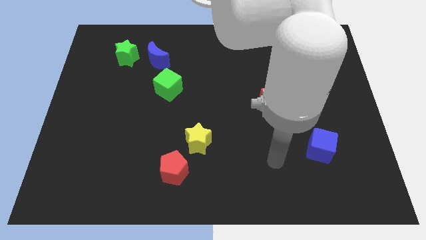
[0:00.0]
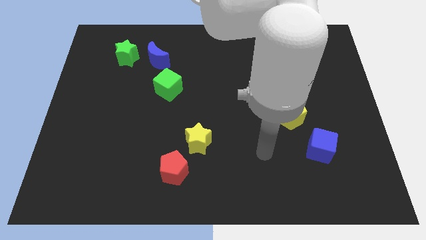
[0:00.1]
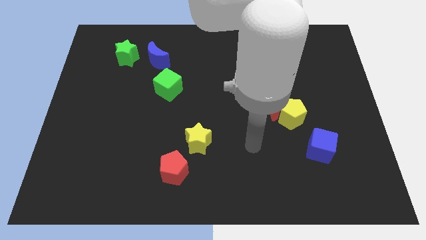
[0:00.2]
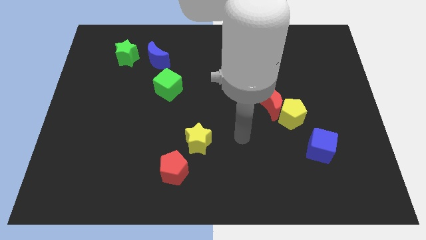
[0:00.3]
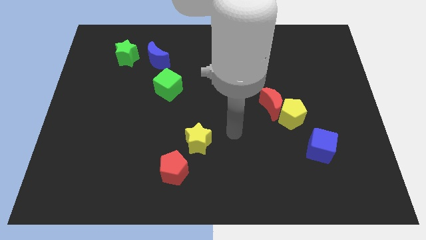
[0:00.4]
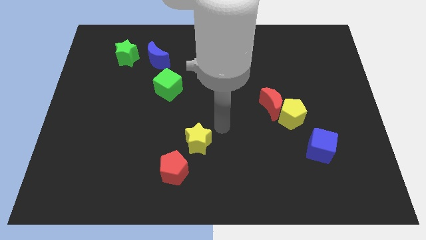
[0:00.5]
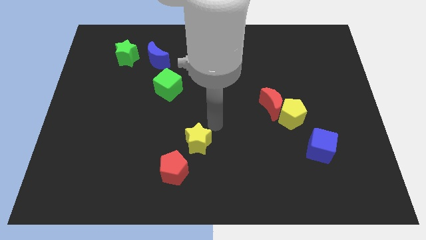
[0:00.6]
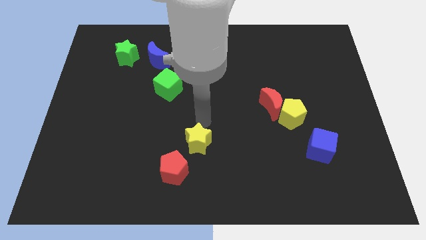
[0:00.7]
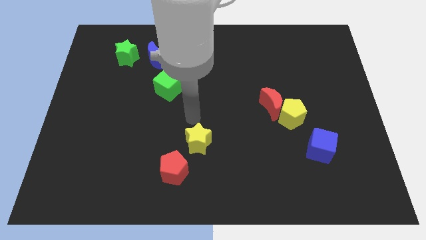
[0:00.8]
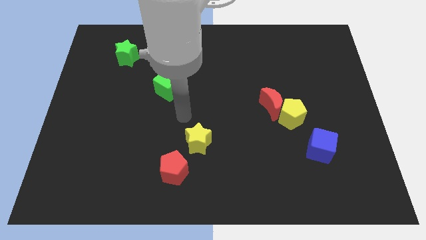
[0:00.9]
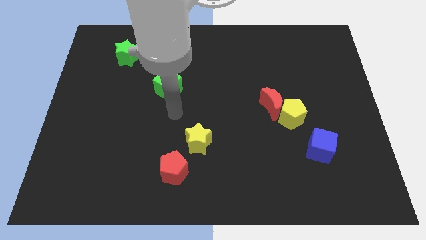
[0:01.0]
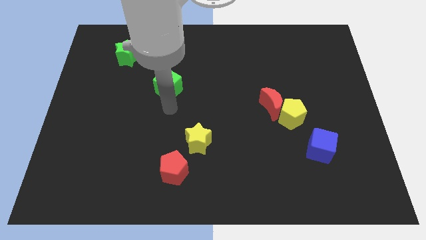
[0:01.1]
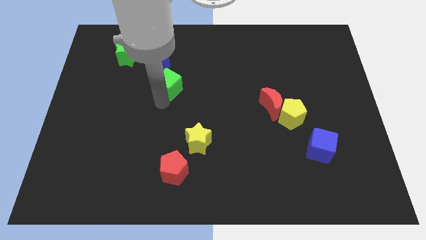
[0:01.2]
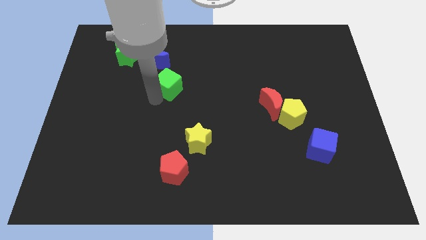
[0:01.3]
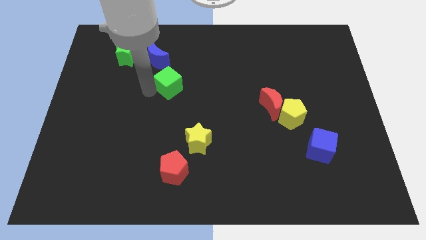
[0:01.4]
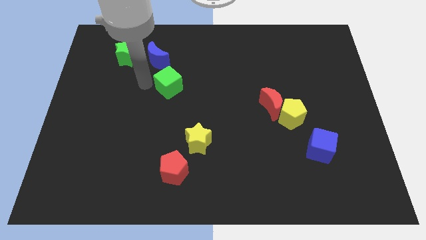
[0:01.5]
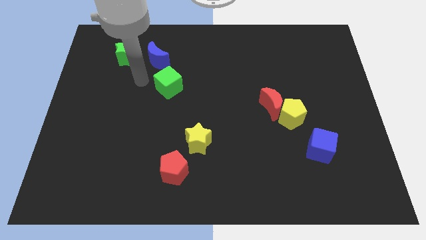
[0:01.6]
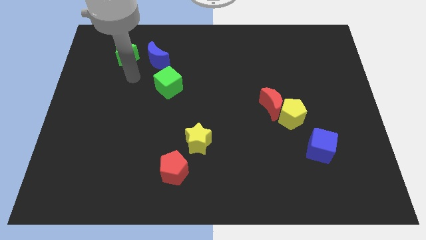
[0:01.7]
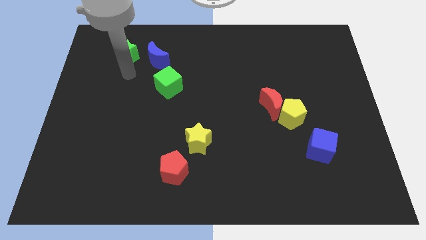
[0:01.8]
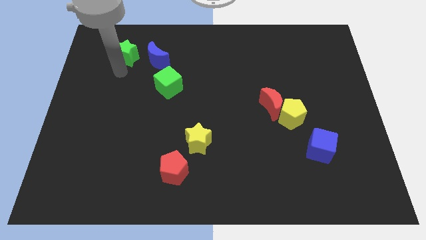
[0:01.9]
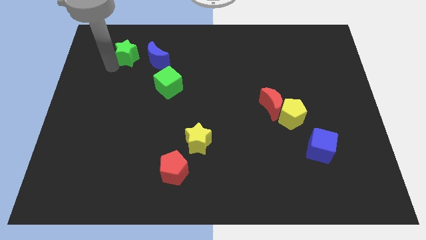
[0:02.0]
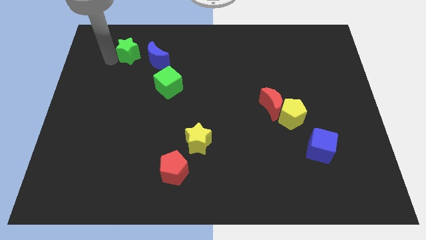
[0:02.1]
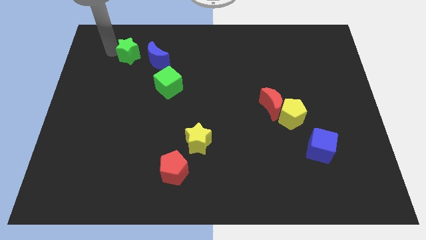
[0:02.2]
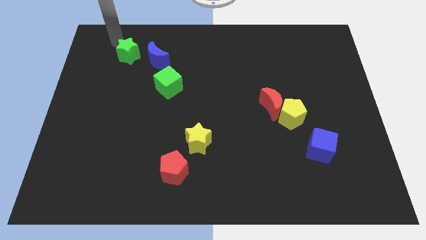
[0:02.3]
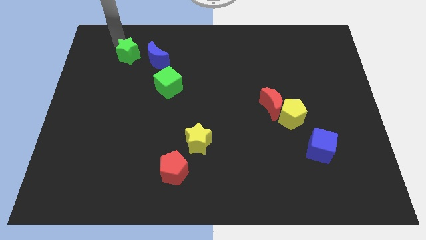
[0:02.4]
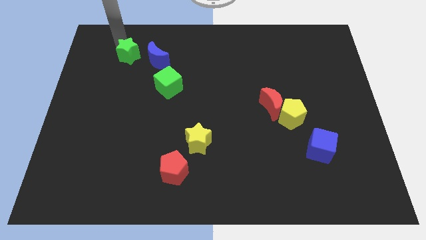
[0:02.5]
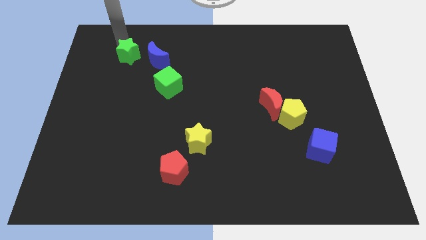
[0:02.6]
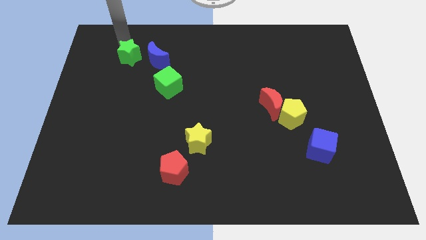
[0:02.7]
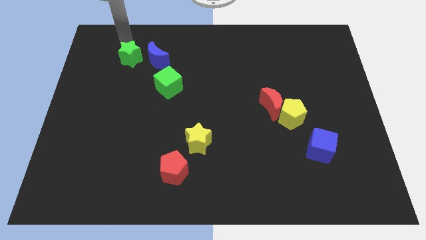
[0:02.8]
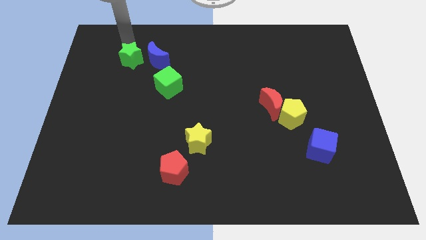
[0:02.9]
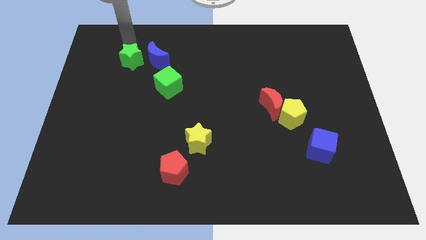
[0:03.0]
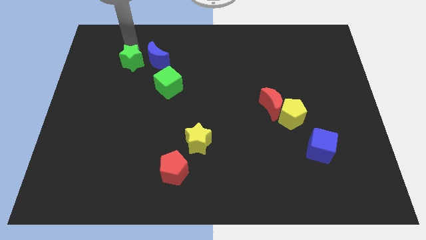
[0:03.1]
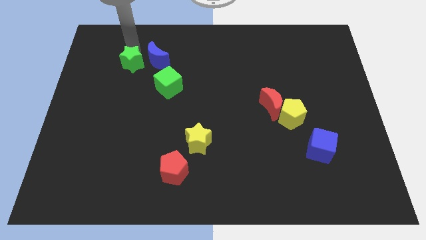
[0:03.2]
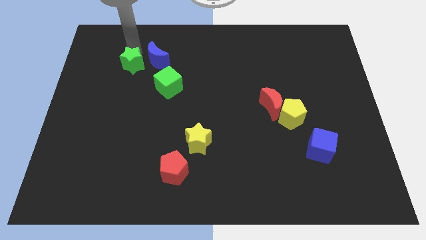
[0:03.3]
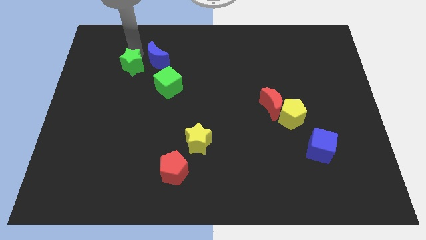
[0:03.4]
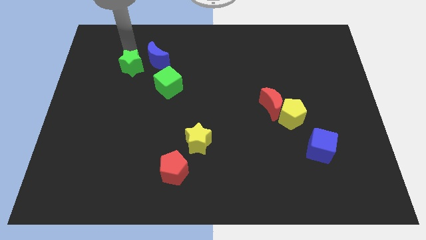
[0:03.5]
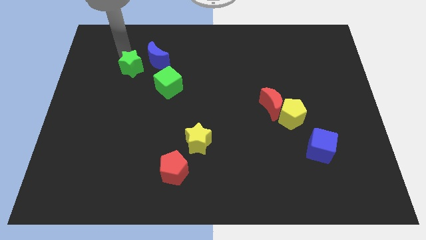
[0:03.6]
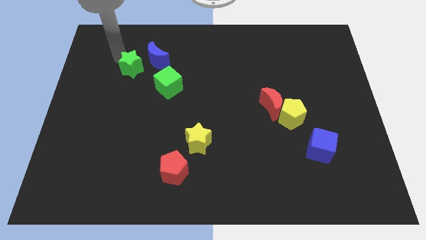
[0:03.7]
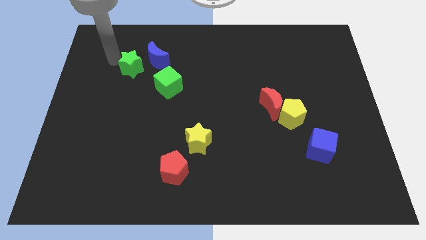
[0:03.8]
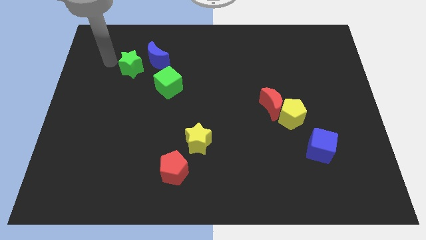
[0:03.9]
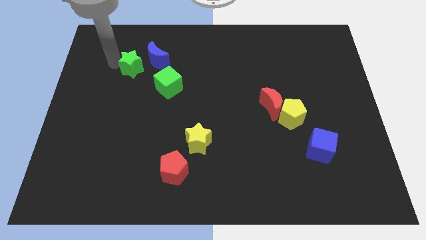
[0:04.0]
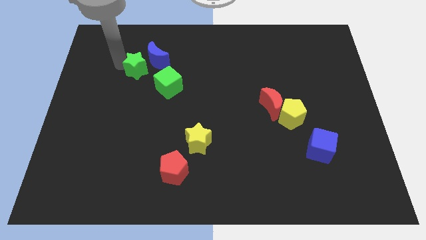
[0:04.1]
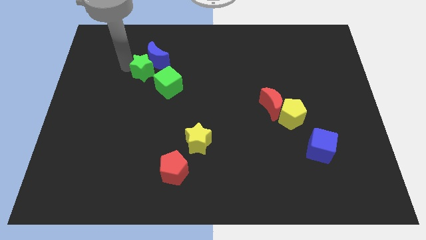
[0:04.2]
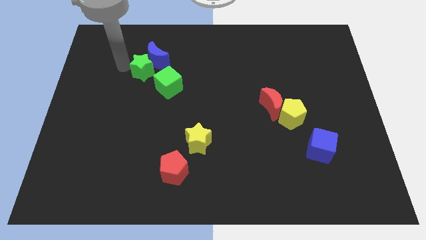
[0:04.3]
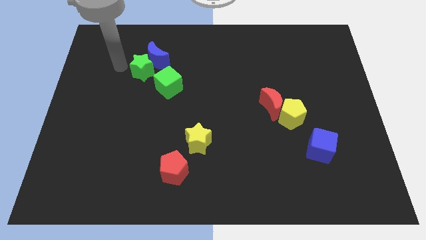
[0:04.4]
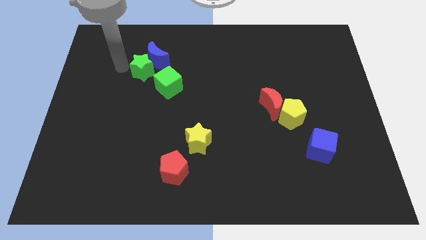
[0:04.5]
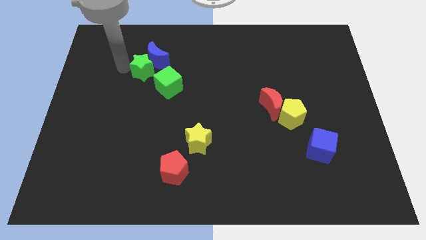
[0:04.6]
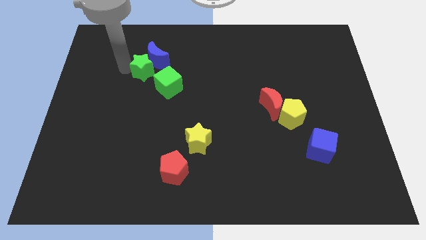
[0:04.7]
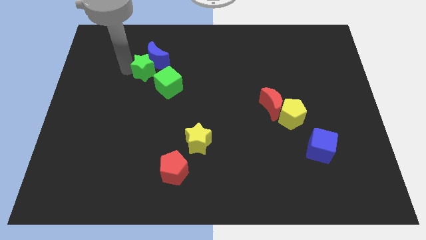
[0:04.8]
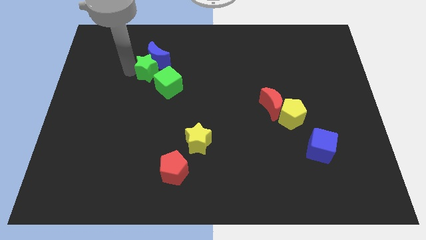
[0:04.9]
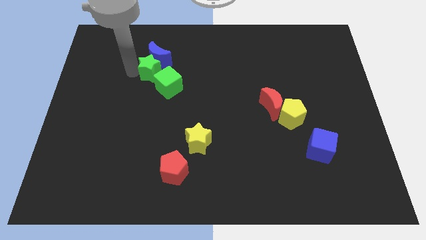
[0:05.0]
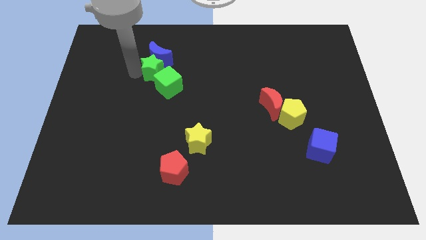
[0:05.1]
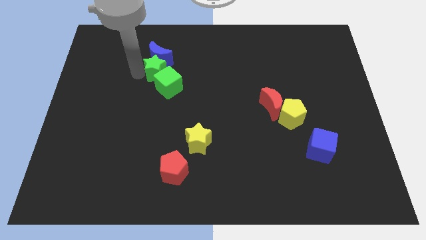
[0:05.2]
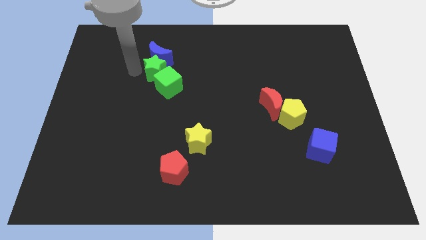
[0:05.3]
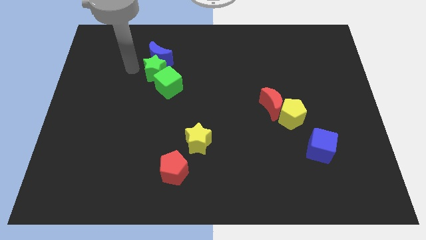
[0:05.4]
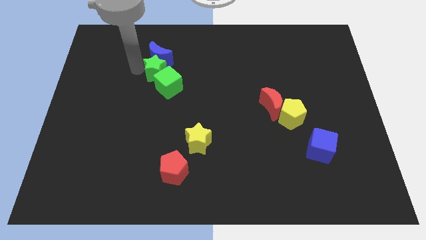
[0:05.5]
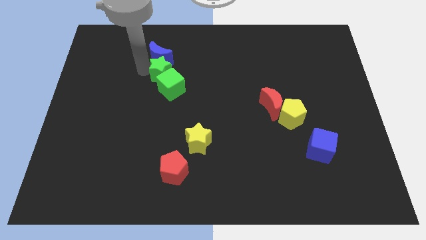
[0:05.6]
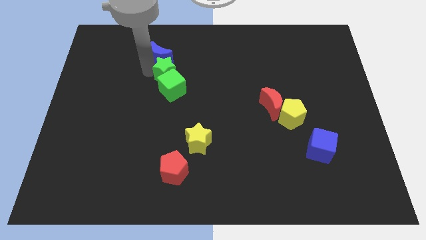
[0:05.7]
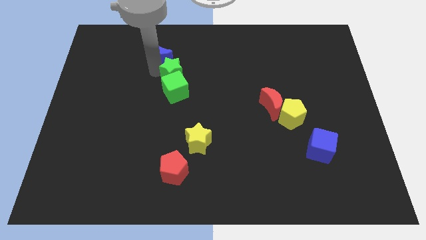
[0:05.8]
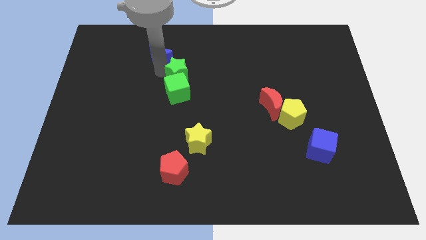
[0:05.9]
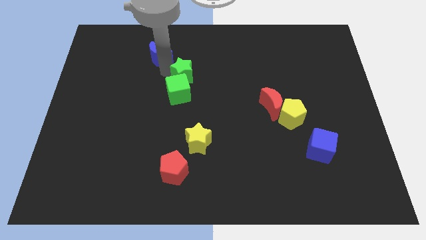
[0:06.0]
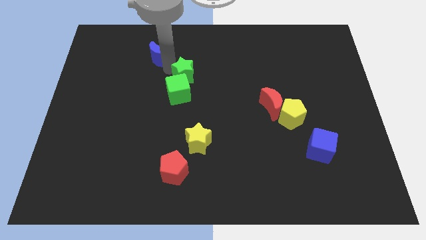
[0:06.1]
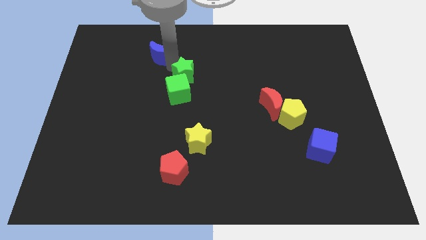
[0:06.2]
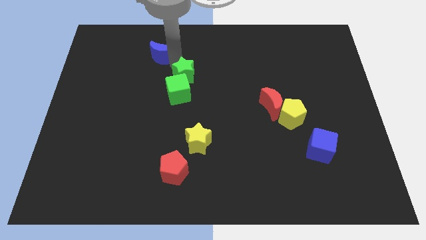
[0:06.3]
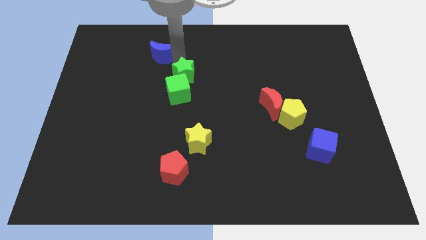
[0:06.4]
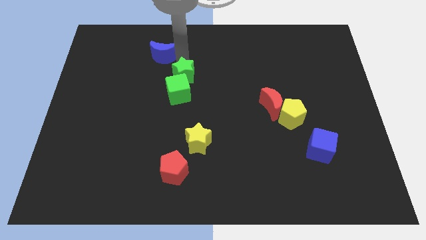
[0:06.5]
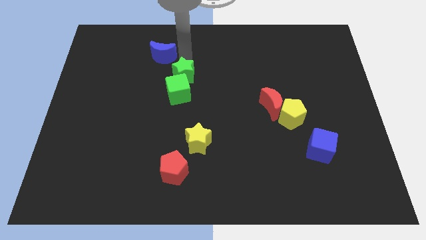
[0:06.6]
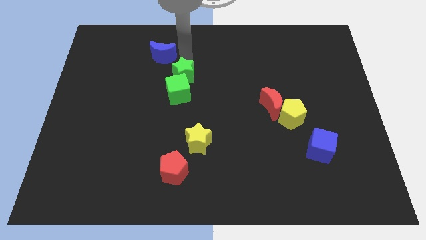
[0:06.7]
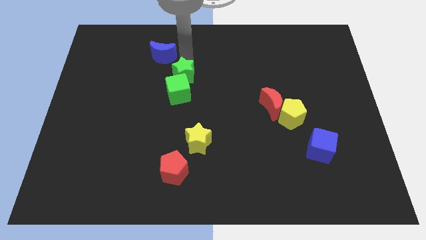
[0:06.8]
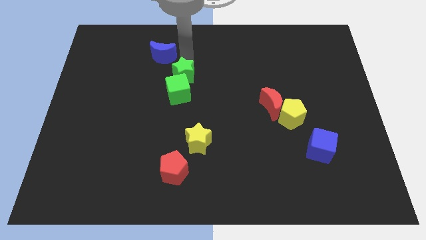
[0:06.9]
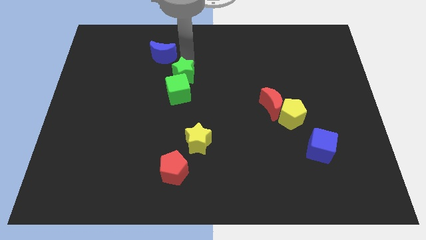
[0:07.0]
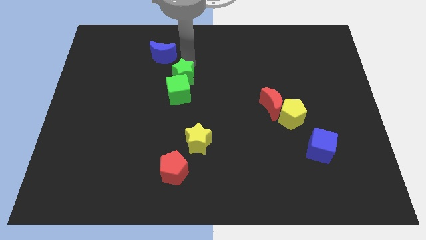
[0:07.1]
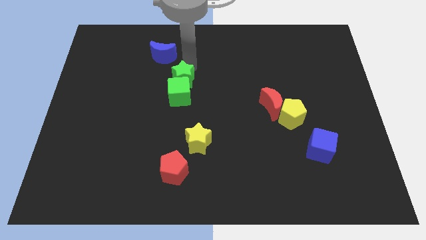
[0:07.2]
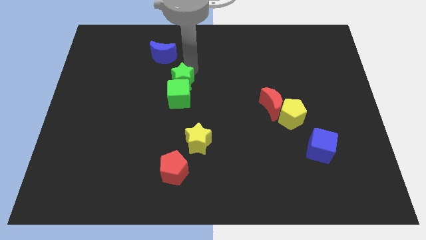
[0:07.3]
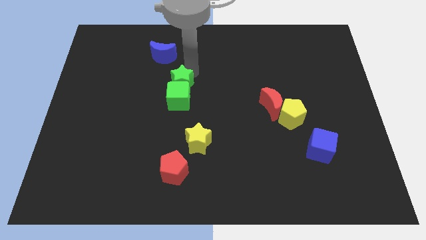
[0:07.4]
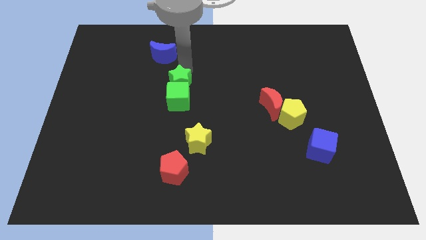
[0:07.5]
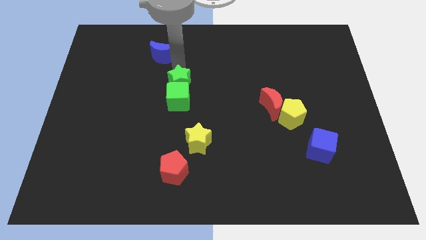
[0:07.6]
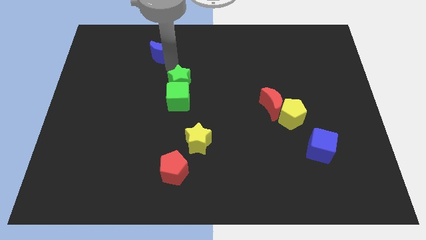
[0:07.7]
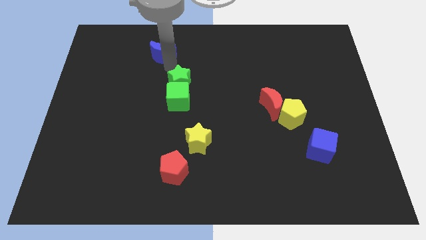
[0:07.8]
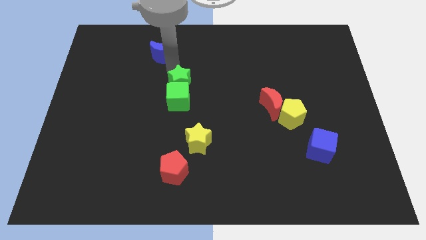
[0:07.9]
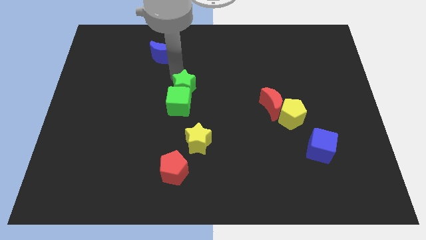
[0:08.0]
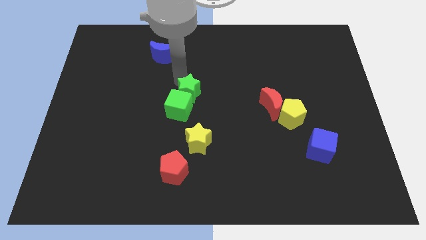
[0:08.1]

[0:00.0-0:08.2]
slide the green star diagonally down and right

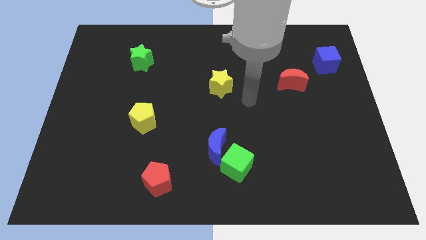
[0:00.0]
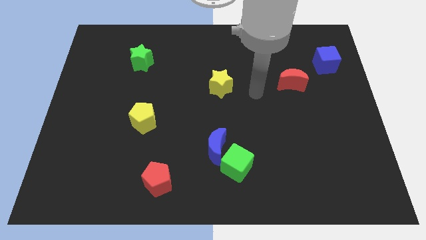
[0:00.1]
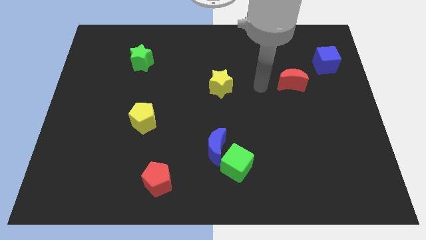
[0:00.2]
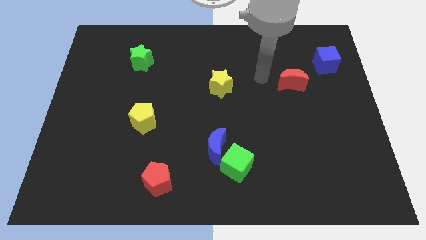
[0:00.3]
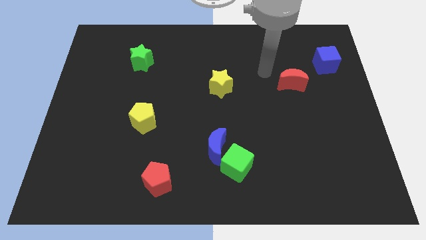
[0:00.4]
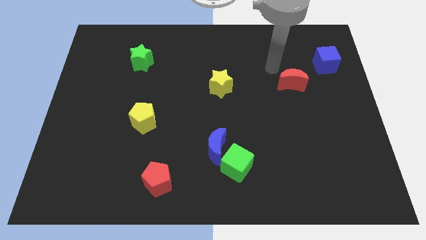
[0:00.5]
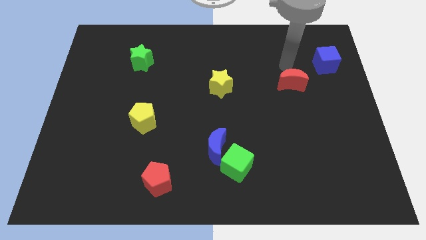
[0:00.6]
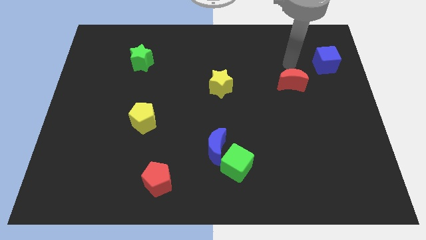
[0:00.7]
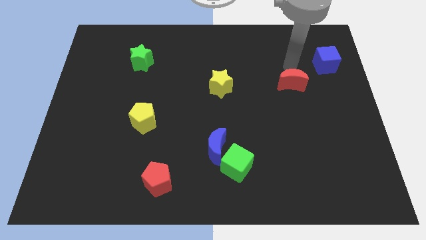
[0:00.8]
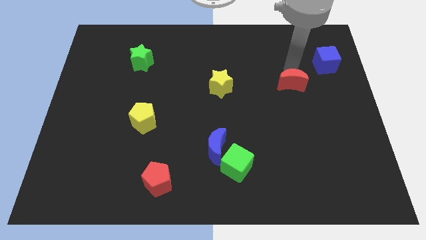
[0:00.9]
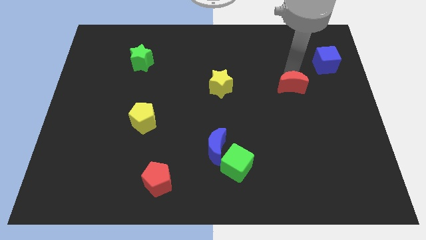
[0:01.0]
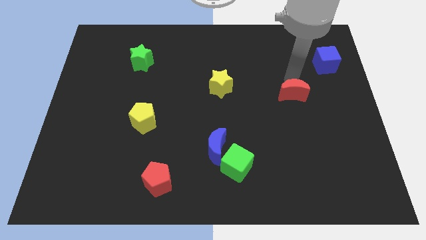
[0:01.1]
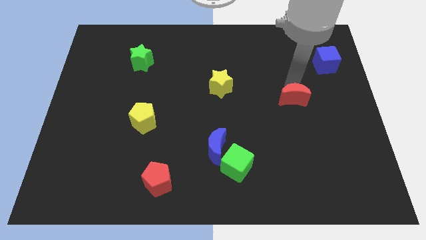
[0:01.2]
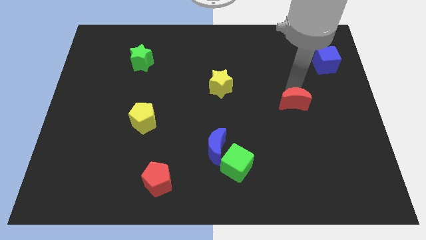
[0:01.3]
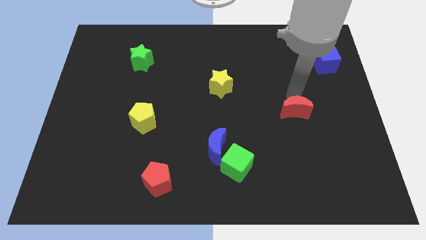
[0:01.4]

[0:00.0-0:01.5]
move the red moon down a little
